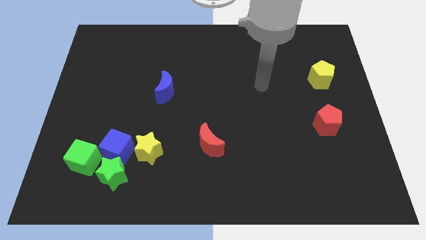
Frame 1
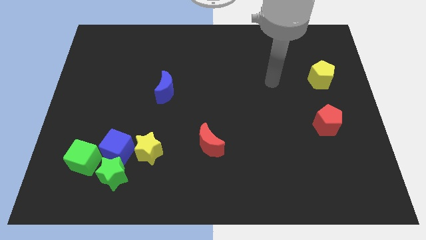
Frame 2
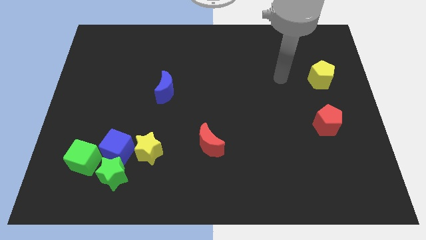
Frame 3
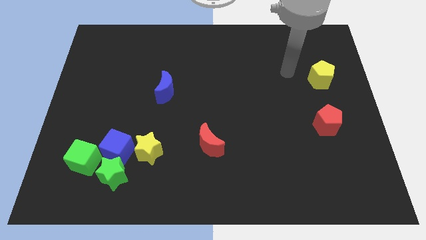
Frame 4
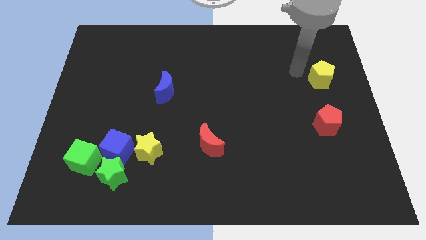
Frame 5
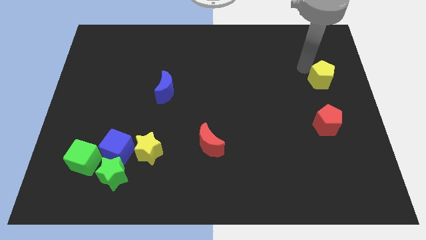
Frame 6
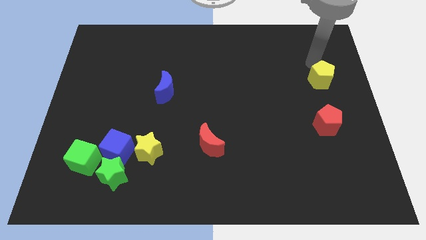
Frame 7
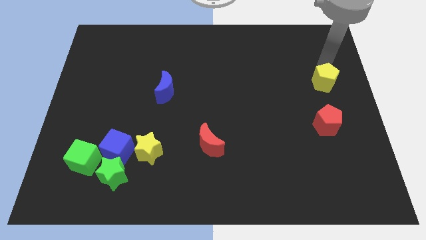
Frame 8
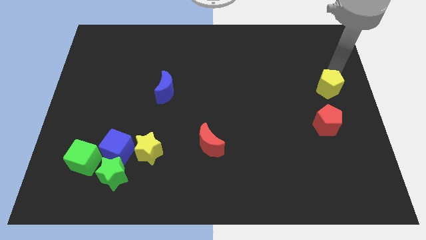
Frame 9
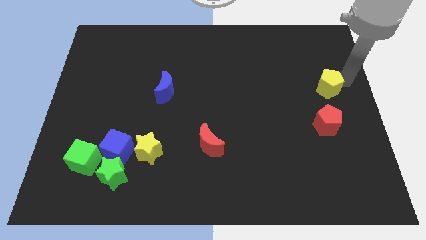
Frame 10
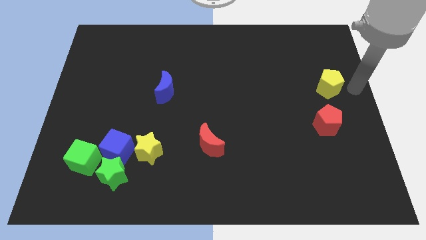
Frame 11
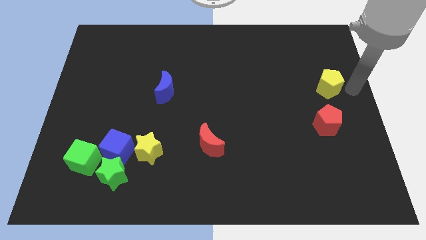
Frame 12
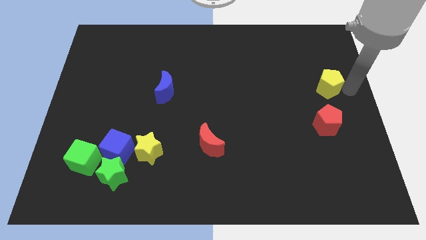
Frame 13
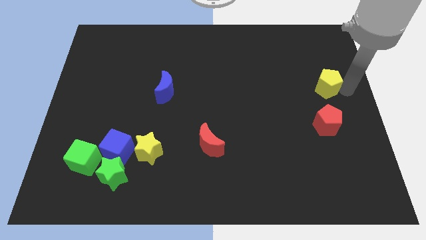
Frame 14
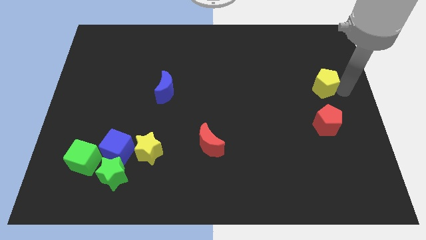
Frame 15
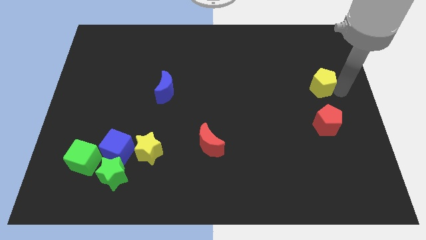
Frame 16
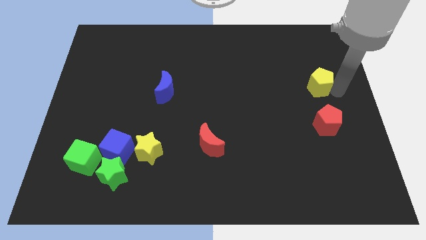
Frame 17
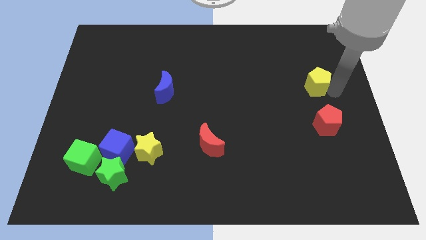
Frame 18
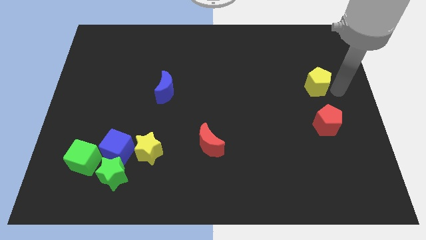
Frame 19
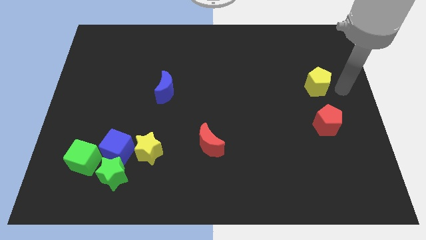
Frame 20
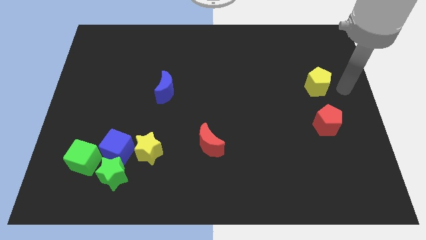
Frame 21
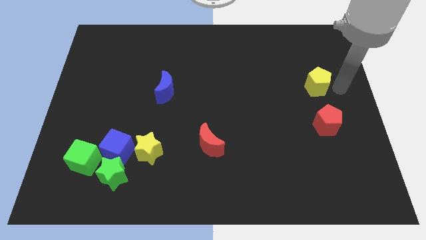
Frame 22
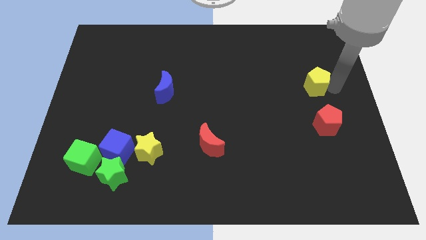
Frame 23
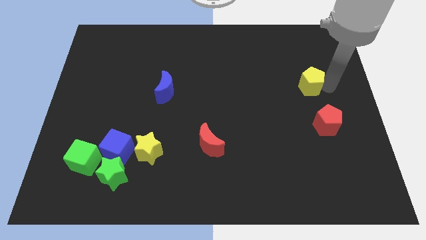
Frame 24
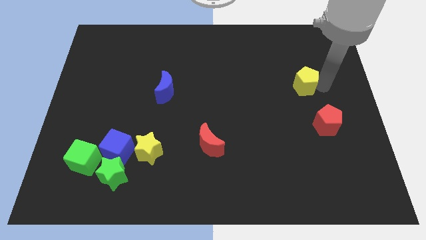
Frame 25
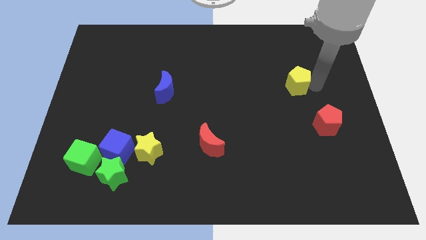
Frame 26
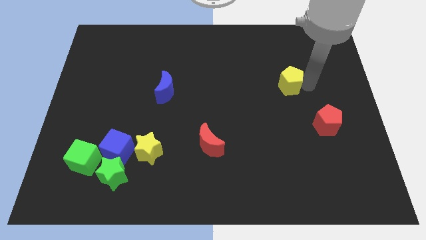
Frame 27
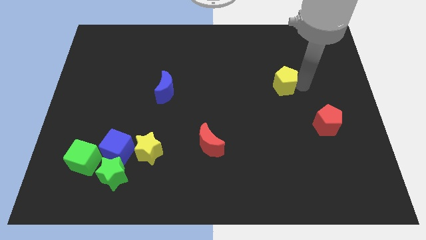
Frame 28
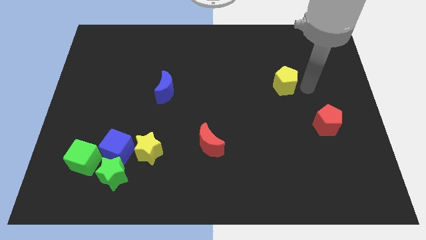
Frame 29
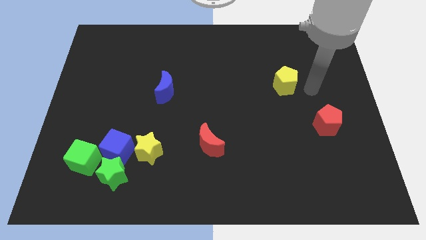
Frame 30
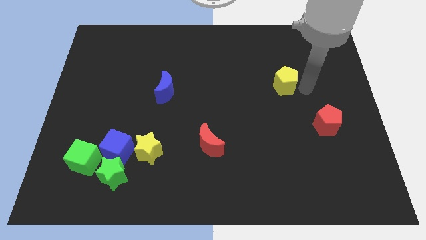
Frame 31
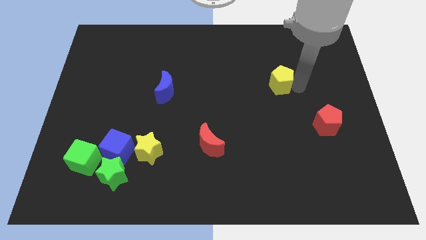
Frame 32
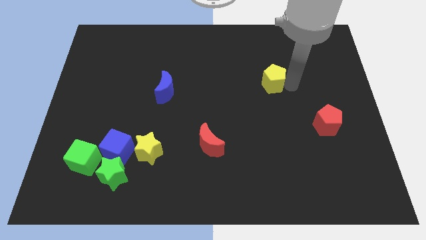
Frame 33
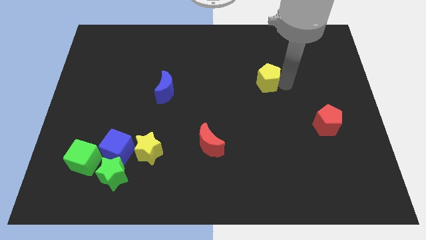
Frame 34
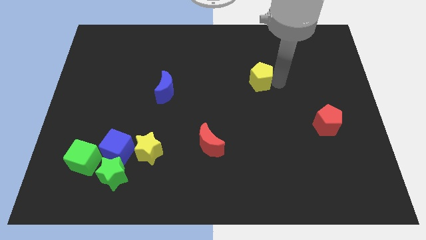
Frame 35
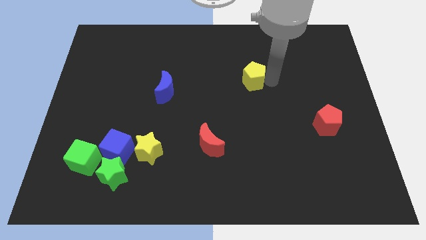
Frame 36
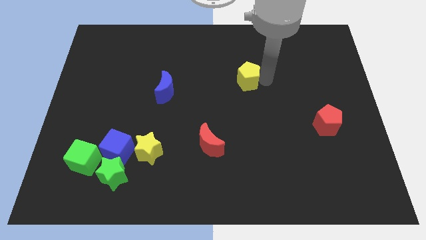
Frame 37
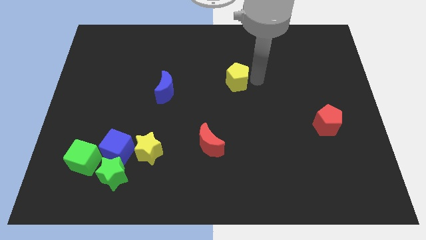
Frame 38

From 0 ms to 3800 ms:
push the yellow pentagon to the left

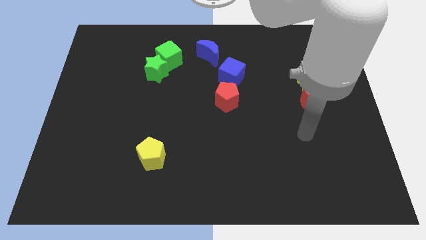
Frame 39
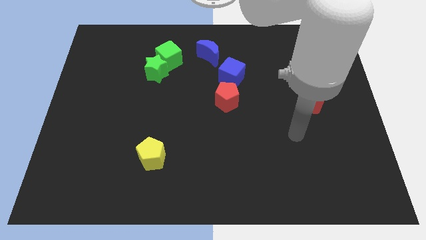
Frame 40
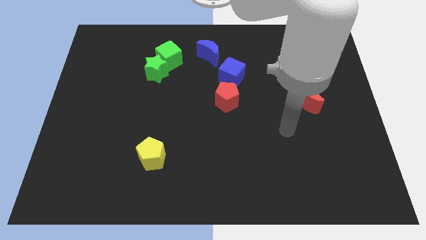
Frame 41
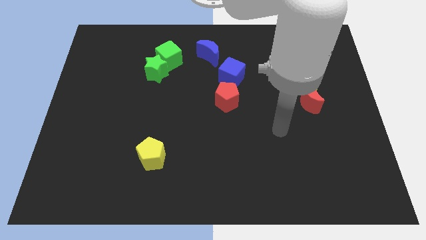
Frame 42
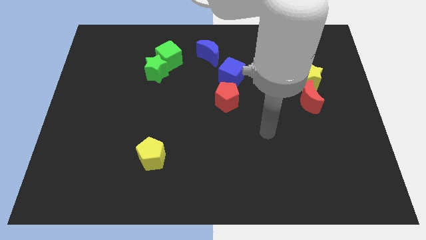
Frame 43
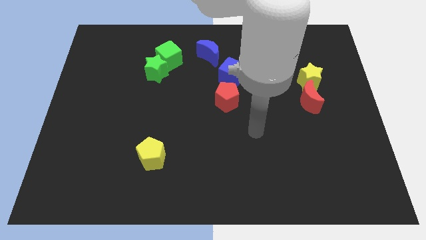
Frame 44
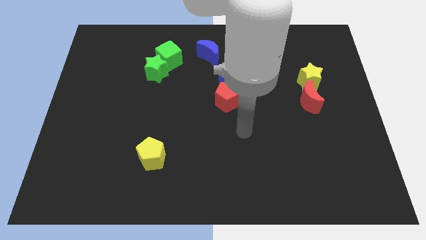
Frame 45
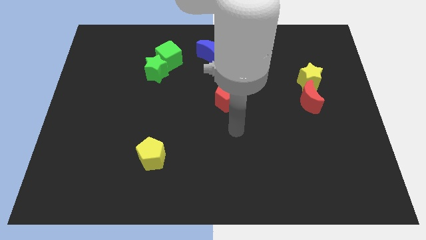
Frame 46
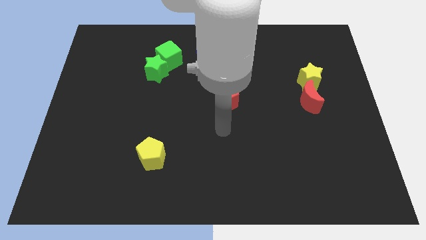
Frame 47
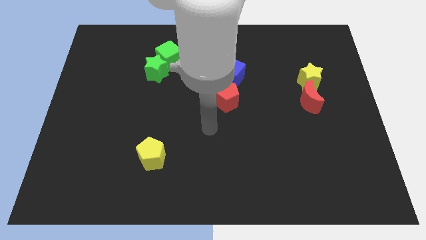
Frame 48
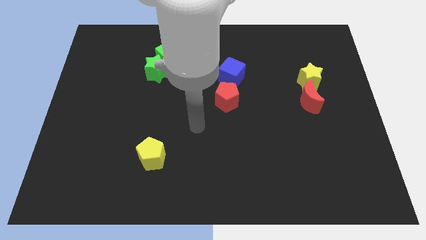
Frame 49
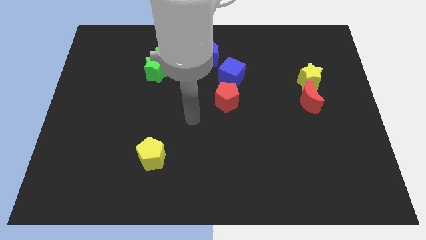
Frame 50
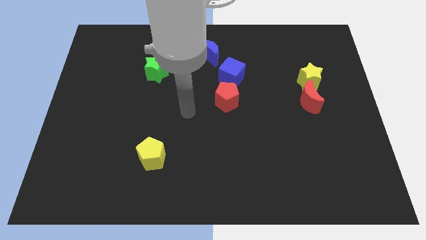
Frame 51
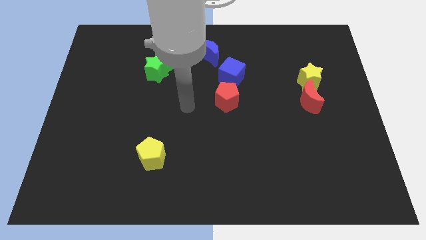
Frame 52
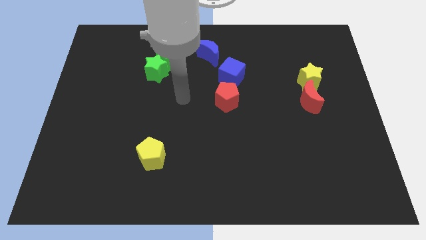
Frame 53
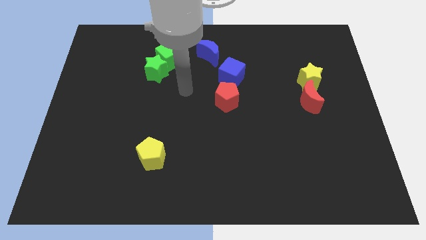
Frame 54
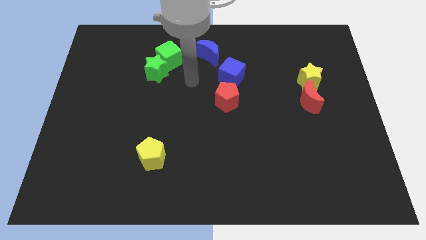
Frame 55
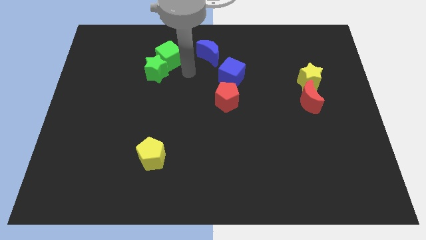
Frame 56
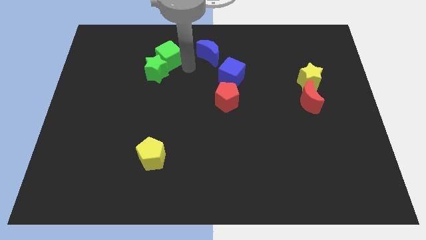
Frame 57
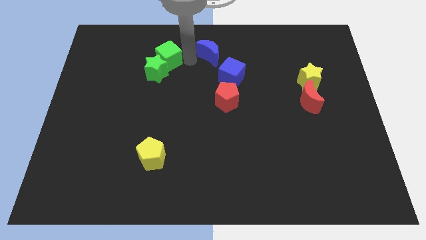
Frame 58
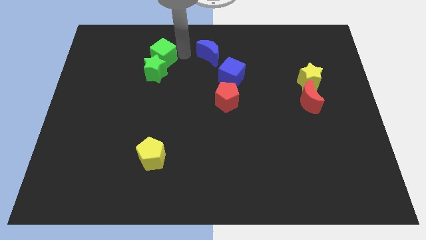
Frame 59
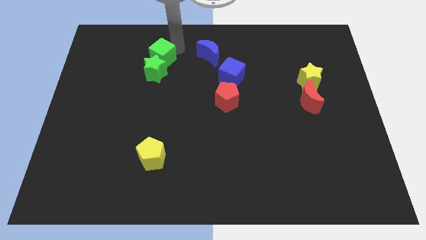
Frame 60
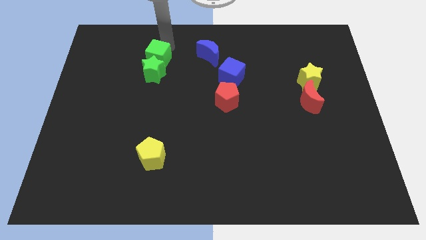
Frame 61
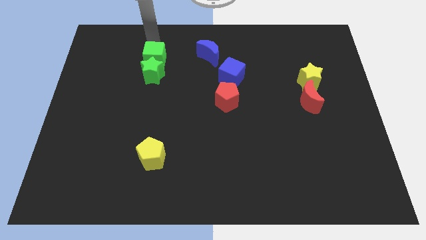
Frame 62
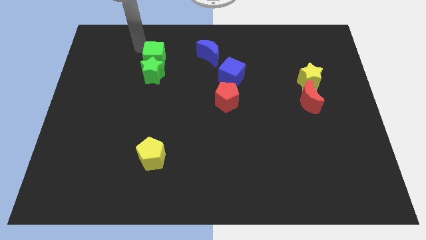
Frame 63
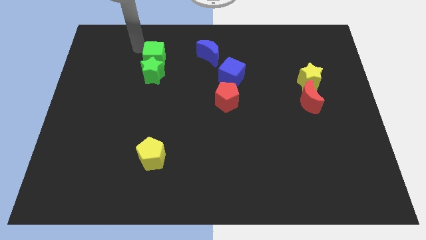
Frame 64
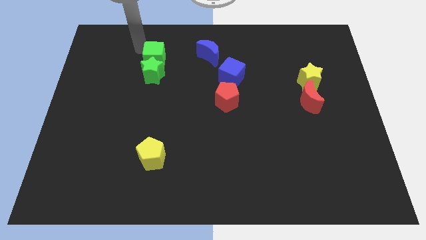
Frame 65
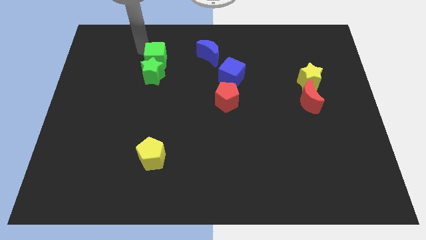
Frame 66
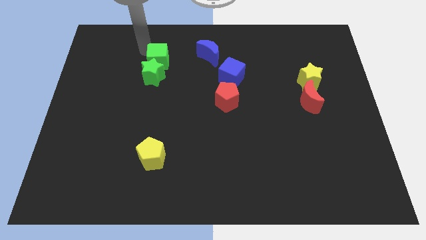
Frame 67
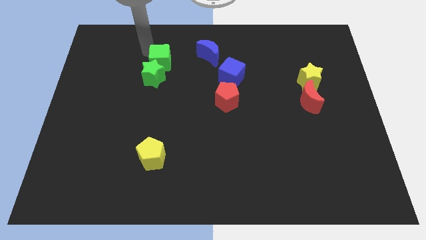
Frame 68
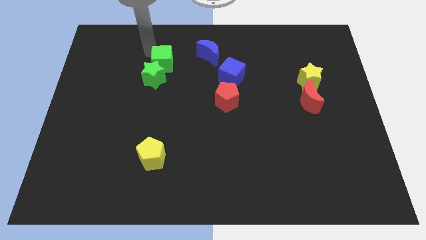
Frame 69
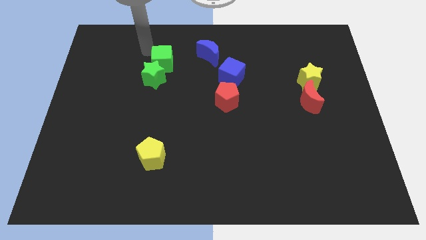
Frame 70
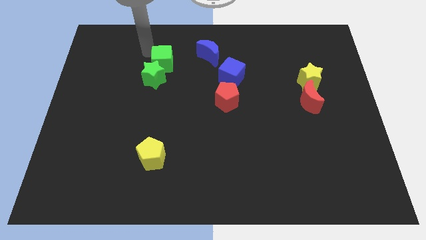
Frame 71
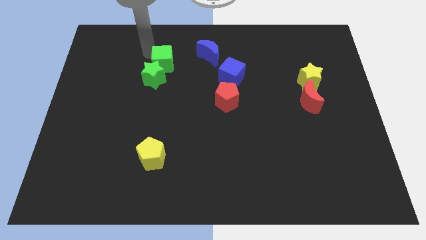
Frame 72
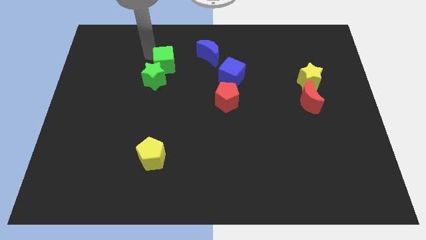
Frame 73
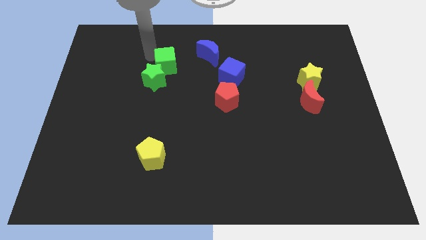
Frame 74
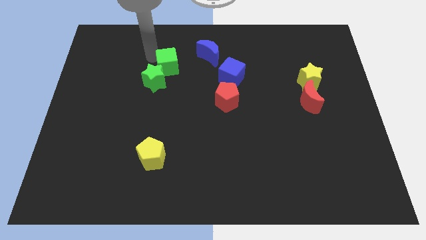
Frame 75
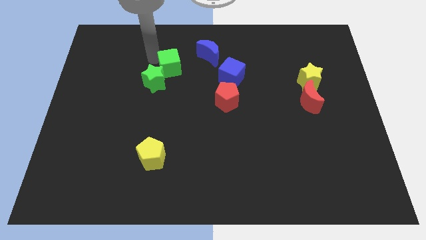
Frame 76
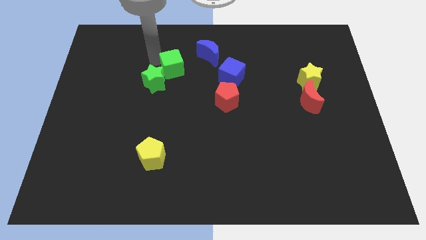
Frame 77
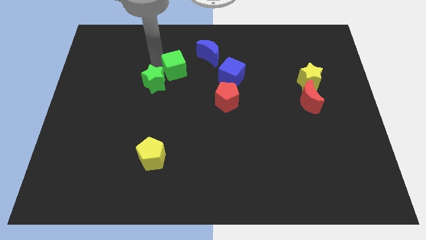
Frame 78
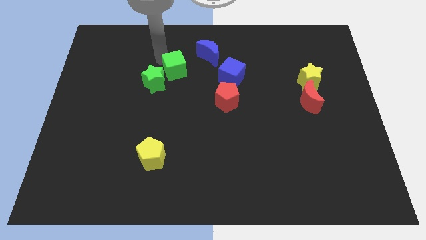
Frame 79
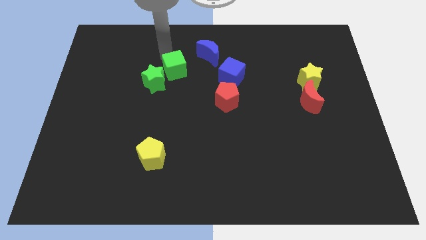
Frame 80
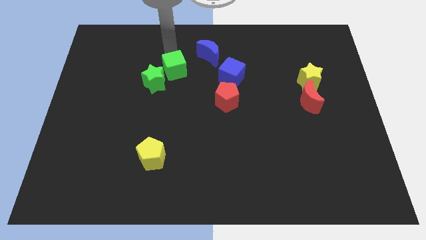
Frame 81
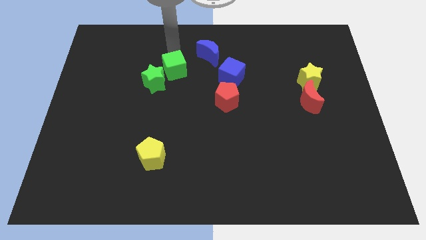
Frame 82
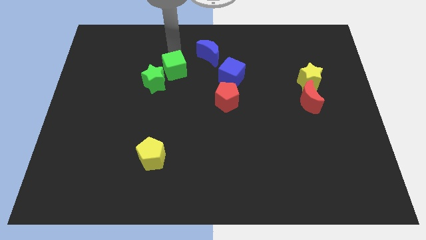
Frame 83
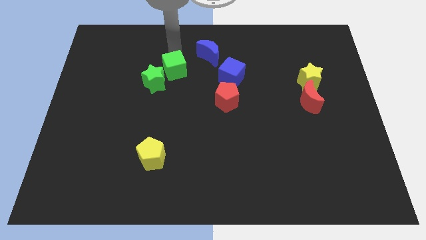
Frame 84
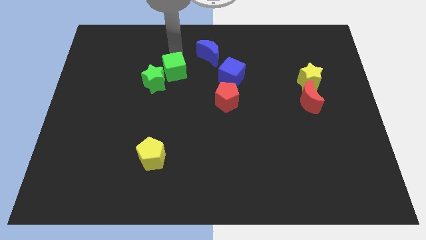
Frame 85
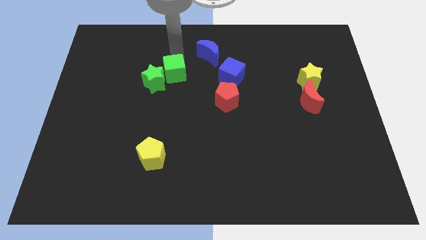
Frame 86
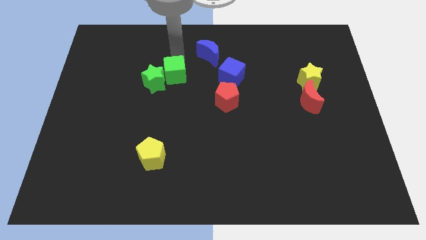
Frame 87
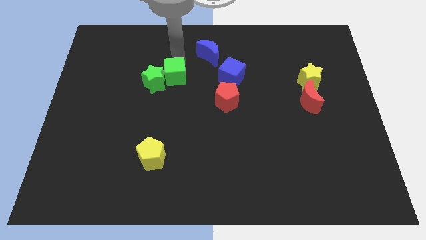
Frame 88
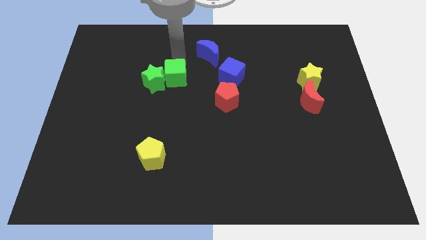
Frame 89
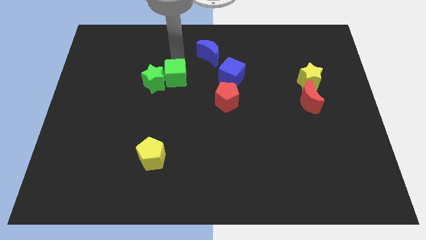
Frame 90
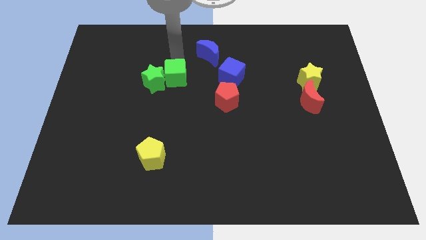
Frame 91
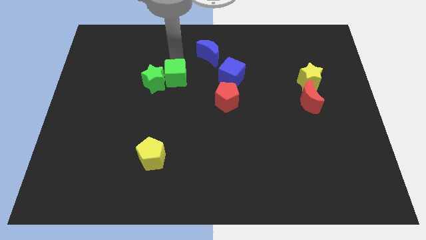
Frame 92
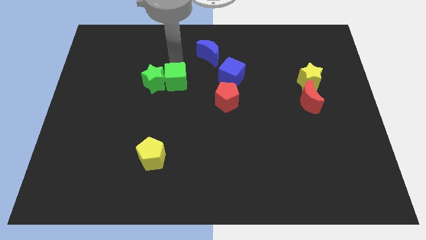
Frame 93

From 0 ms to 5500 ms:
slide the green cube slightly downwards
